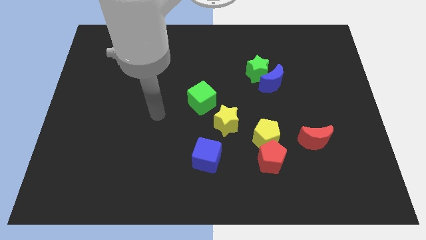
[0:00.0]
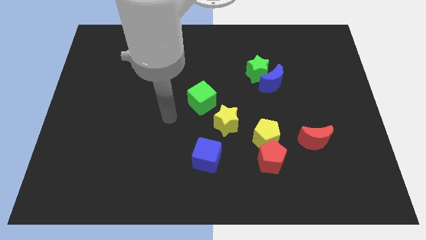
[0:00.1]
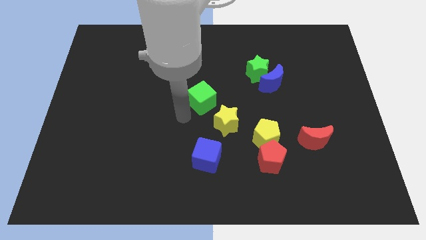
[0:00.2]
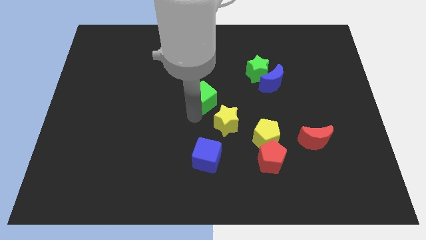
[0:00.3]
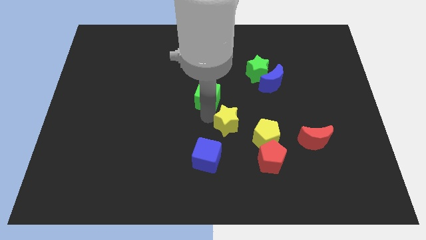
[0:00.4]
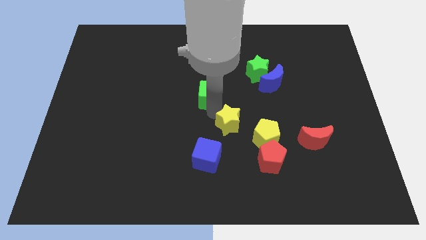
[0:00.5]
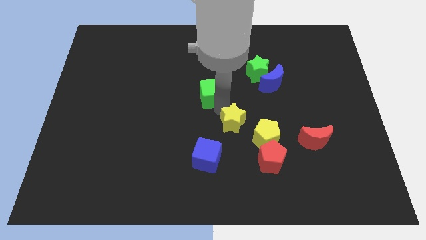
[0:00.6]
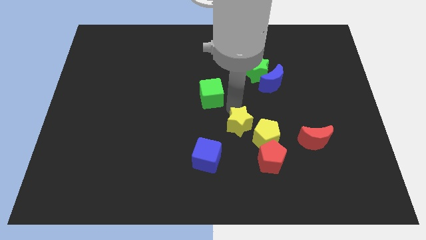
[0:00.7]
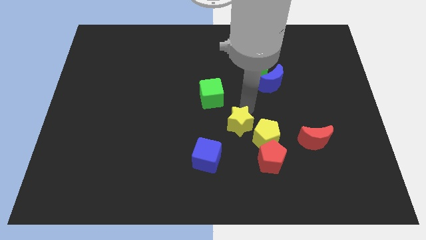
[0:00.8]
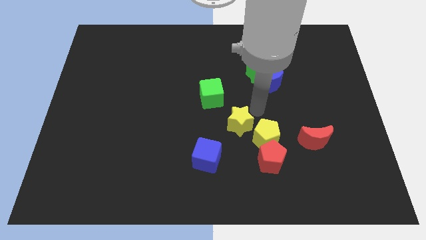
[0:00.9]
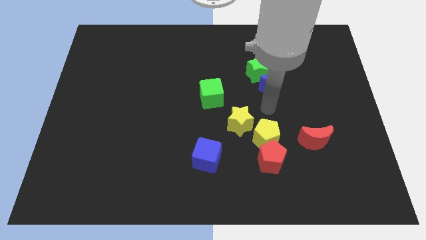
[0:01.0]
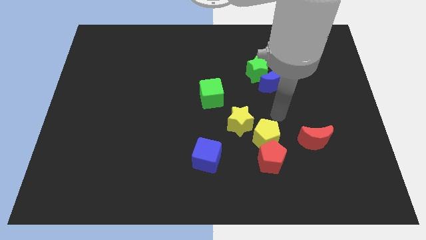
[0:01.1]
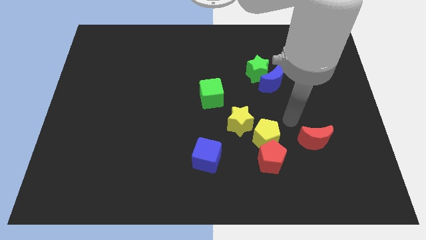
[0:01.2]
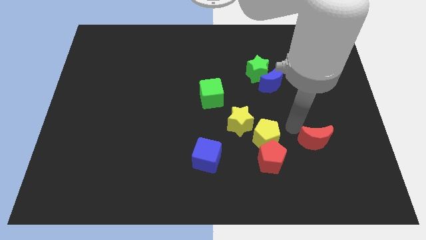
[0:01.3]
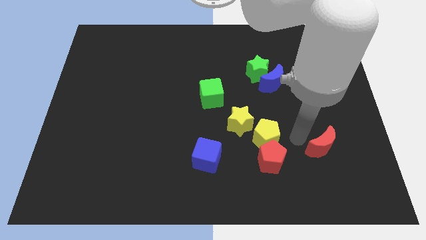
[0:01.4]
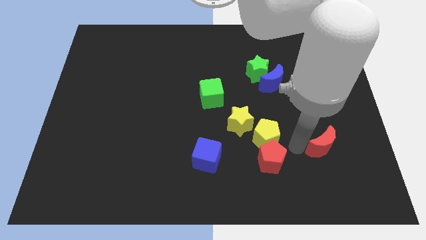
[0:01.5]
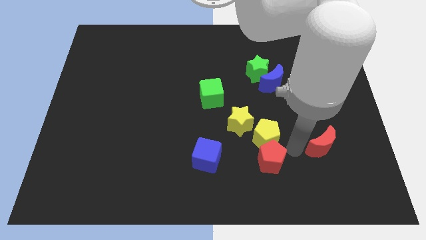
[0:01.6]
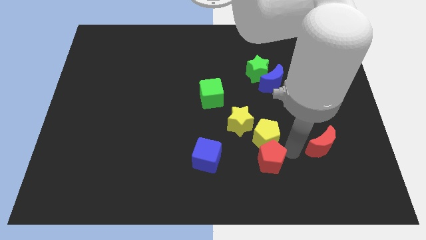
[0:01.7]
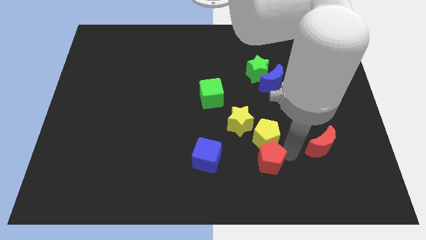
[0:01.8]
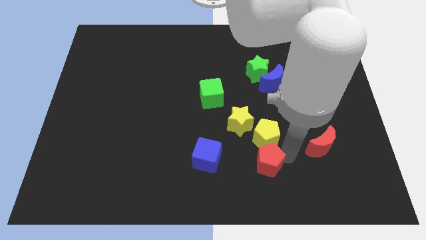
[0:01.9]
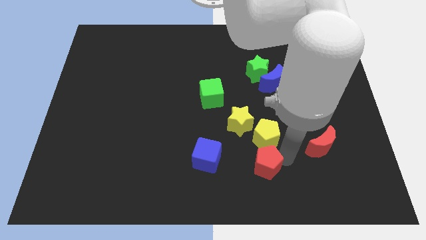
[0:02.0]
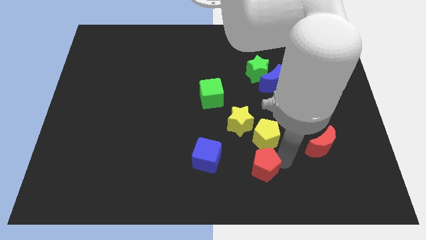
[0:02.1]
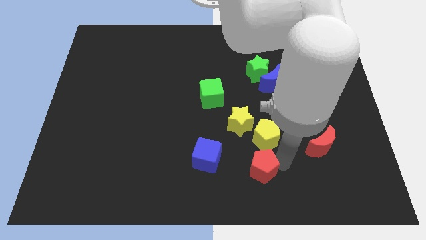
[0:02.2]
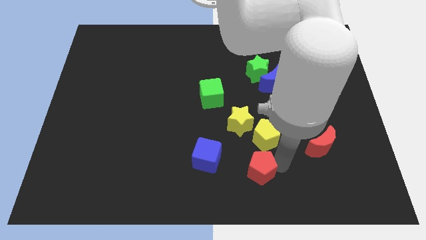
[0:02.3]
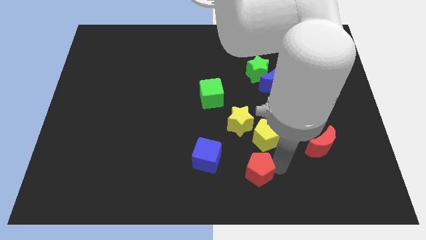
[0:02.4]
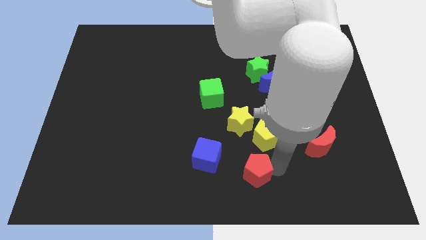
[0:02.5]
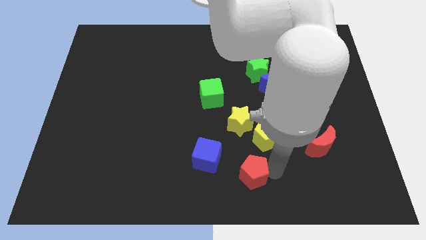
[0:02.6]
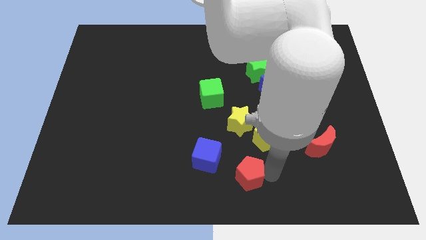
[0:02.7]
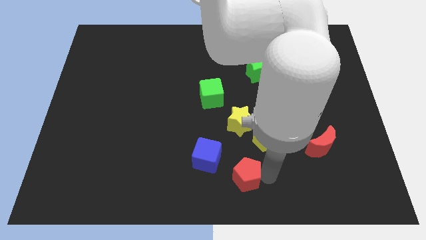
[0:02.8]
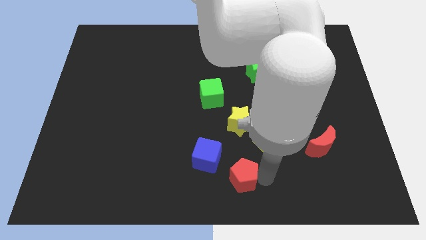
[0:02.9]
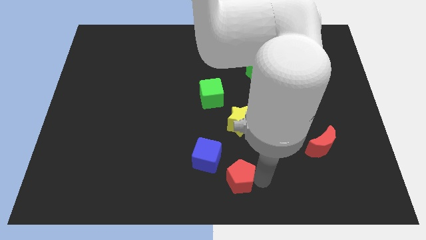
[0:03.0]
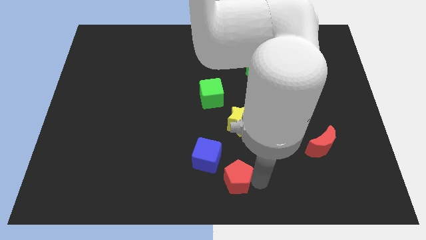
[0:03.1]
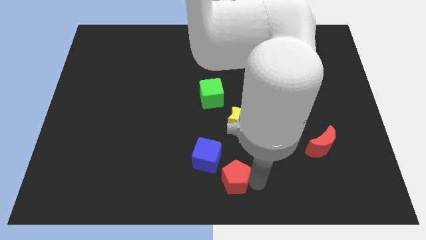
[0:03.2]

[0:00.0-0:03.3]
push the red pentagon a little left

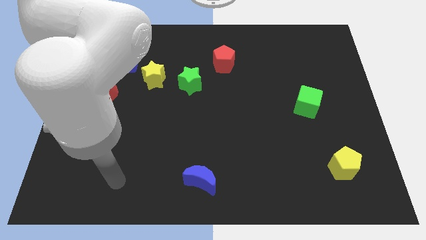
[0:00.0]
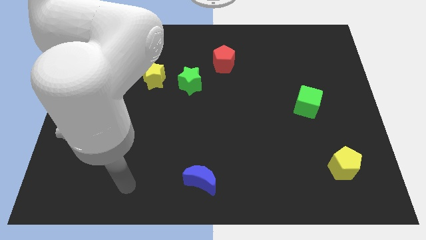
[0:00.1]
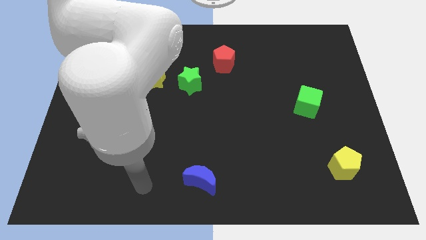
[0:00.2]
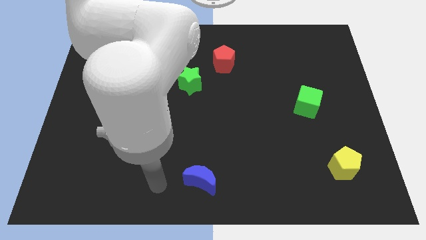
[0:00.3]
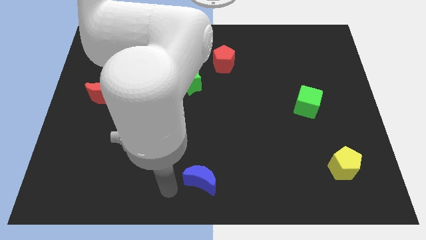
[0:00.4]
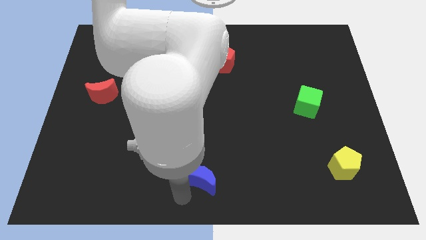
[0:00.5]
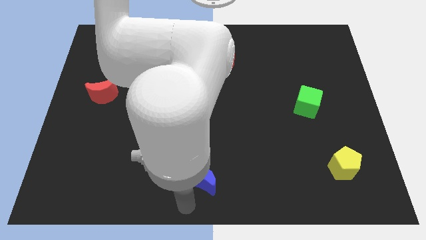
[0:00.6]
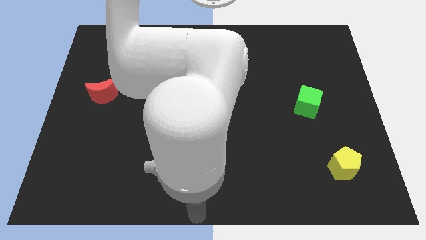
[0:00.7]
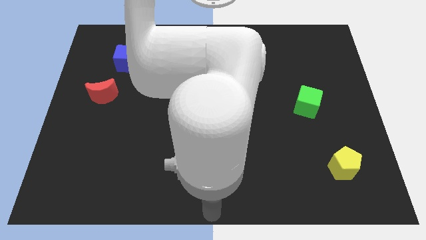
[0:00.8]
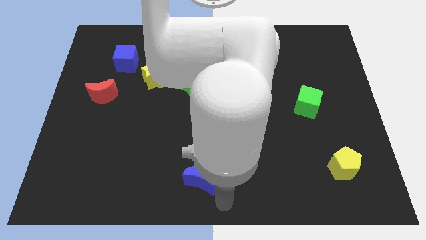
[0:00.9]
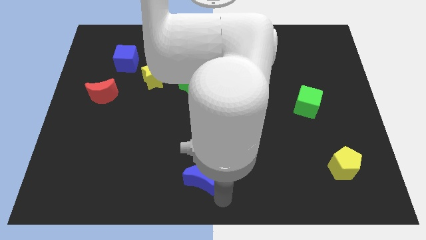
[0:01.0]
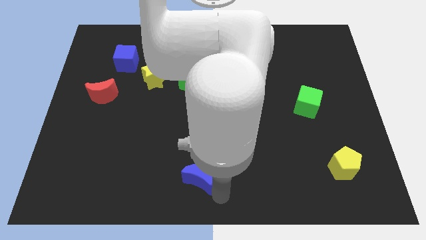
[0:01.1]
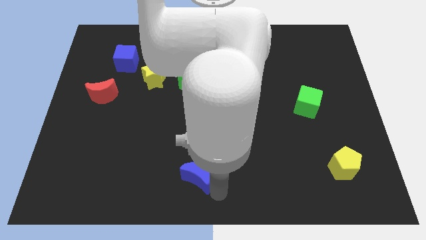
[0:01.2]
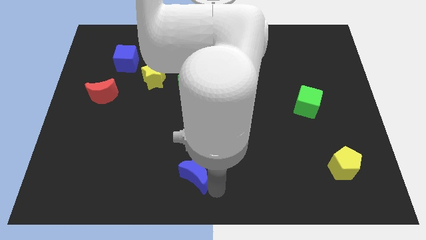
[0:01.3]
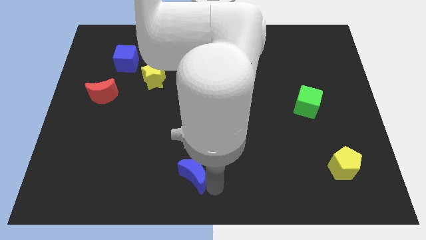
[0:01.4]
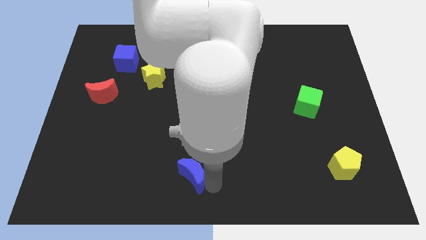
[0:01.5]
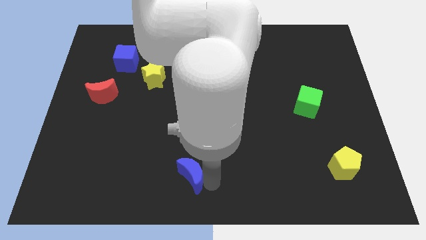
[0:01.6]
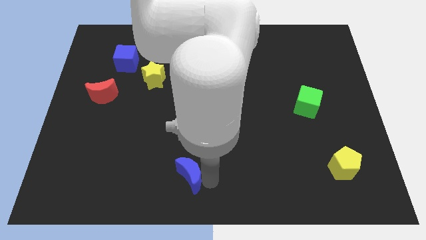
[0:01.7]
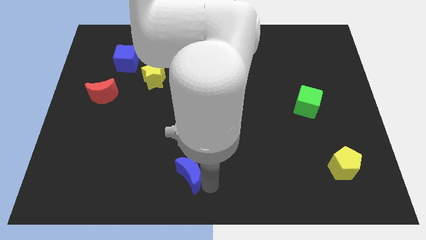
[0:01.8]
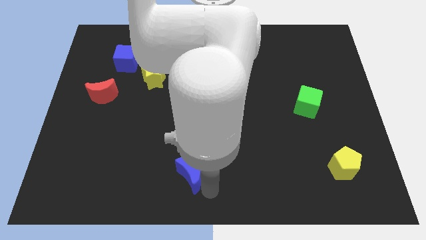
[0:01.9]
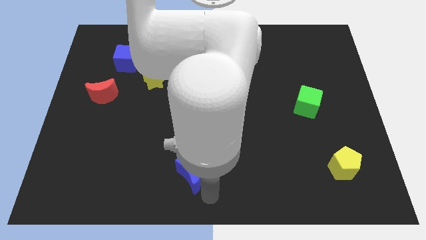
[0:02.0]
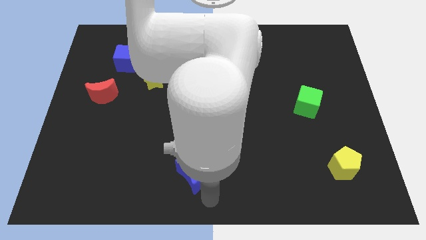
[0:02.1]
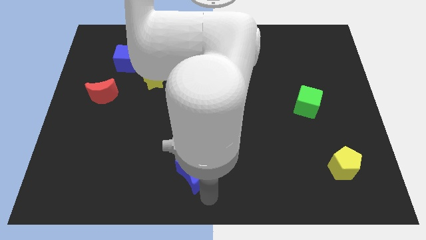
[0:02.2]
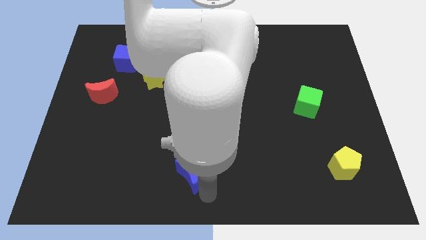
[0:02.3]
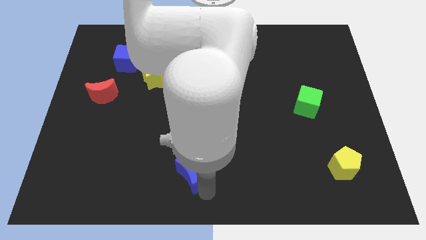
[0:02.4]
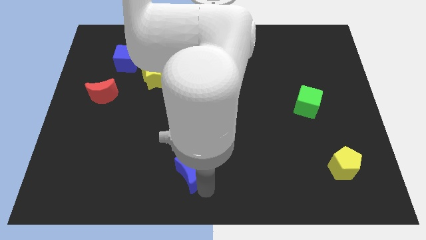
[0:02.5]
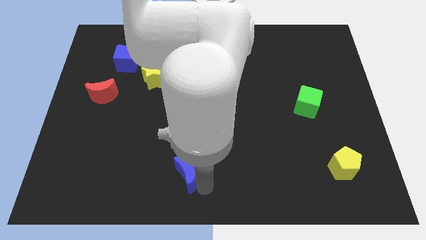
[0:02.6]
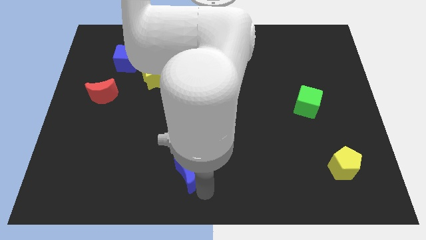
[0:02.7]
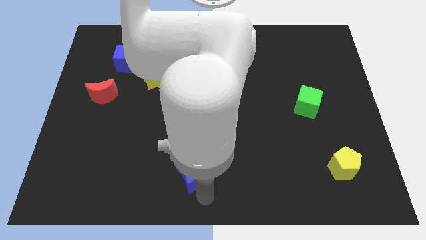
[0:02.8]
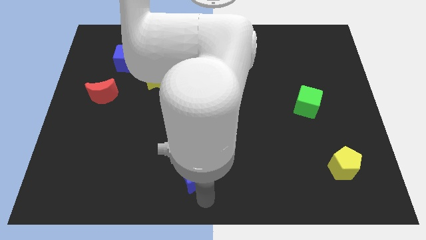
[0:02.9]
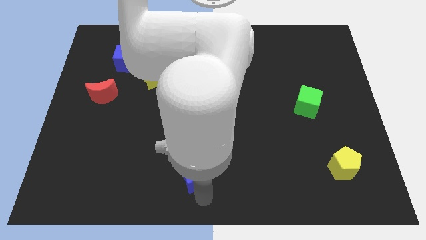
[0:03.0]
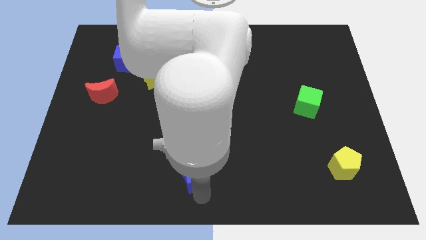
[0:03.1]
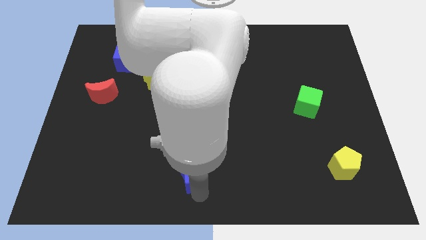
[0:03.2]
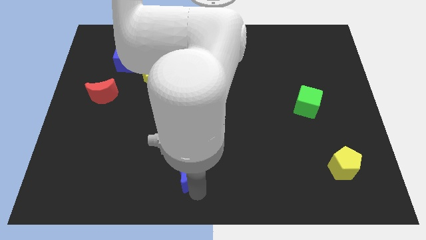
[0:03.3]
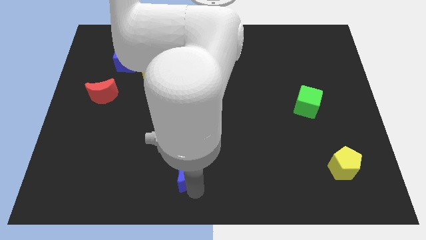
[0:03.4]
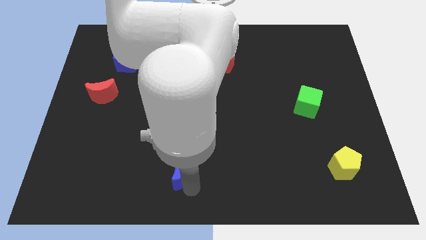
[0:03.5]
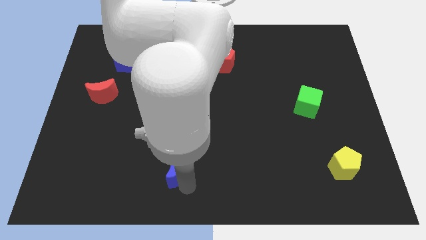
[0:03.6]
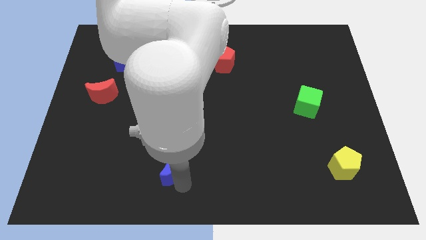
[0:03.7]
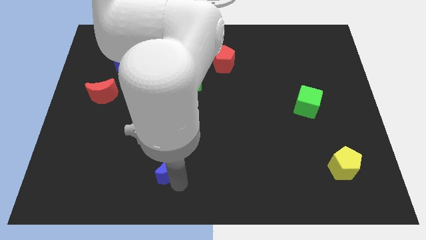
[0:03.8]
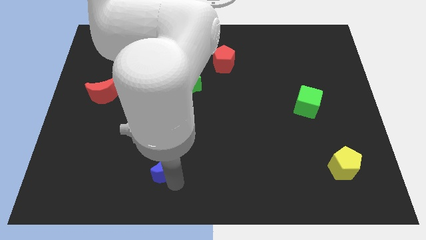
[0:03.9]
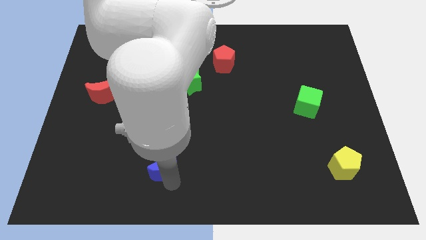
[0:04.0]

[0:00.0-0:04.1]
move the blue moon upwards and left a little bit

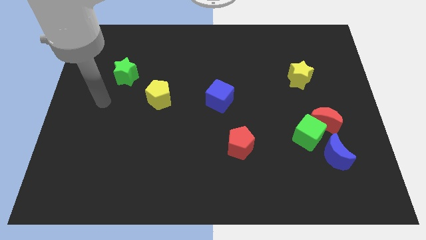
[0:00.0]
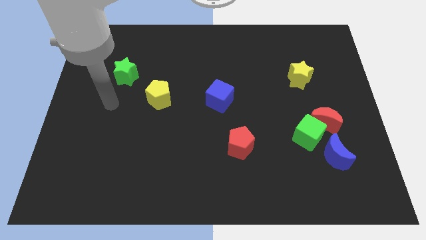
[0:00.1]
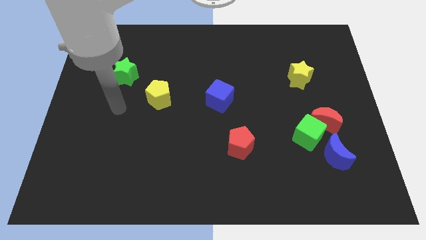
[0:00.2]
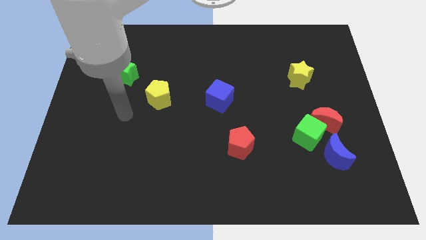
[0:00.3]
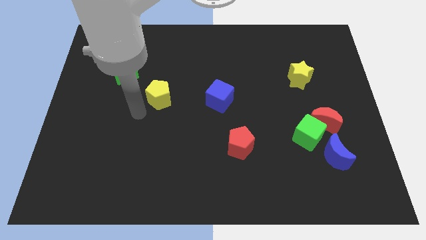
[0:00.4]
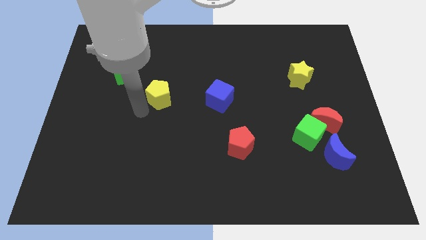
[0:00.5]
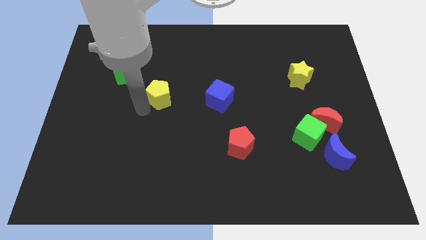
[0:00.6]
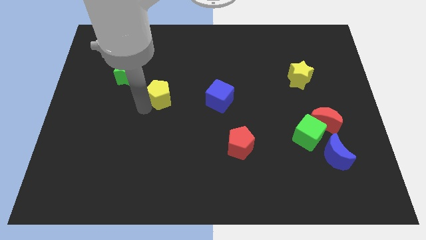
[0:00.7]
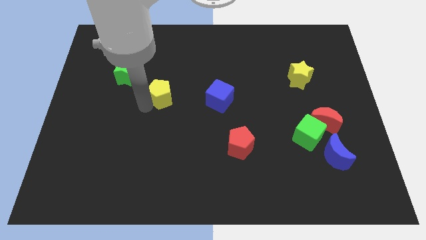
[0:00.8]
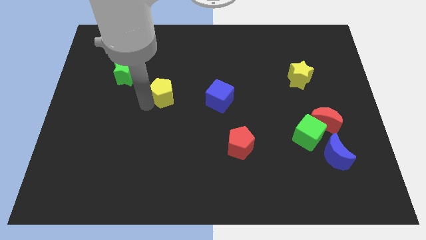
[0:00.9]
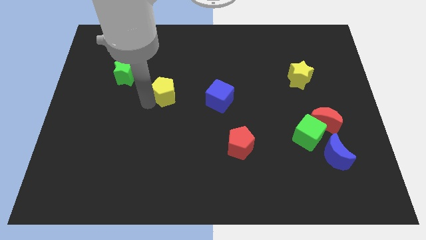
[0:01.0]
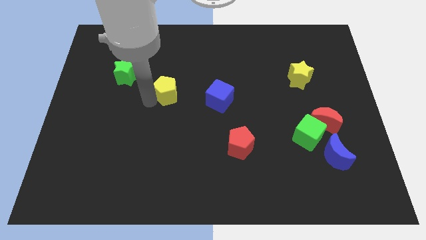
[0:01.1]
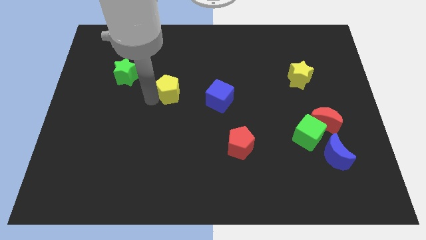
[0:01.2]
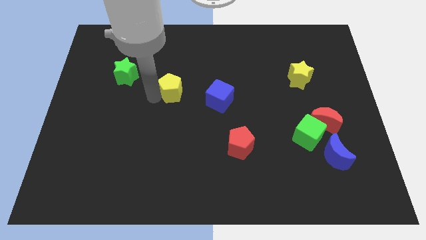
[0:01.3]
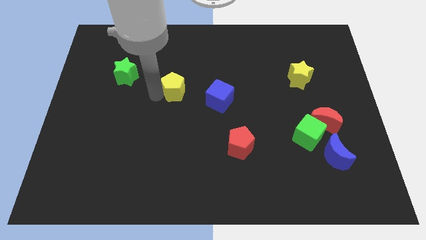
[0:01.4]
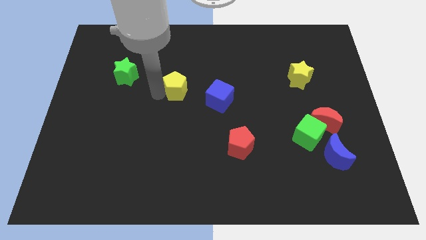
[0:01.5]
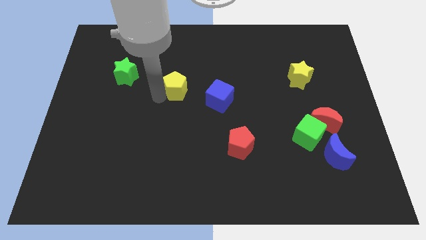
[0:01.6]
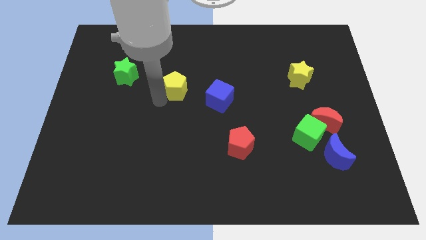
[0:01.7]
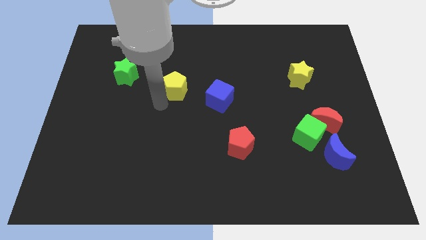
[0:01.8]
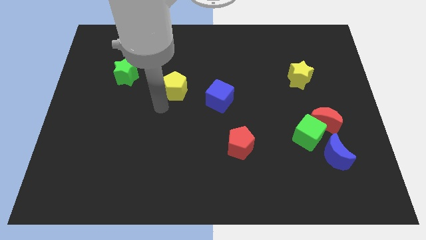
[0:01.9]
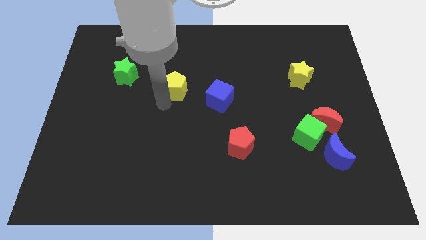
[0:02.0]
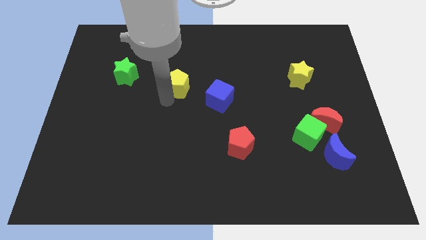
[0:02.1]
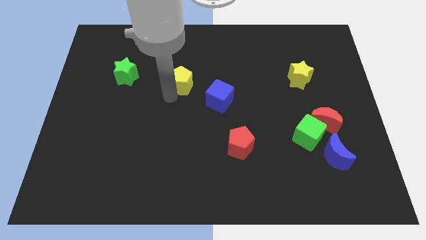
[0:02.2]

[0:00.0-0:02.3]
push the yellow pentagon up and right slightly
